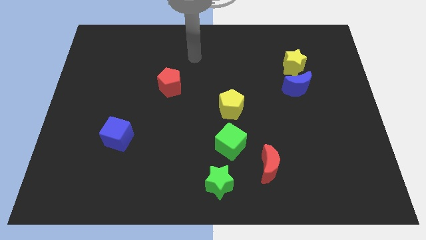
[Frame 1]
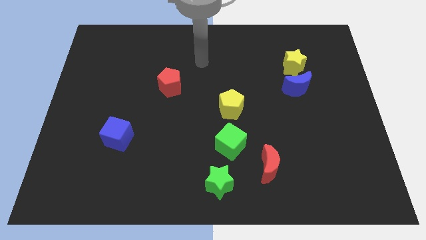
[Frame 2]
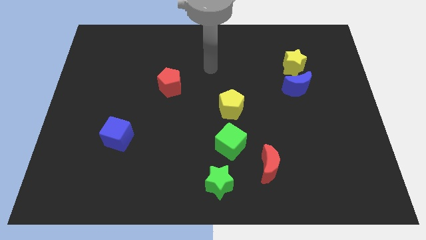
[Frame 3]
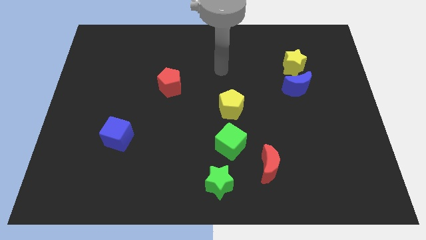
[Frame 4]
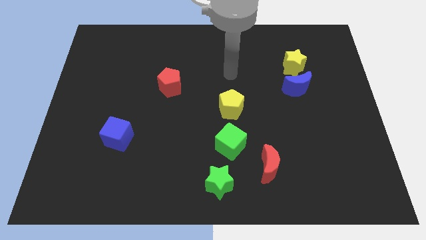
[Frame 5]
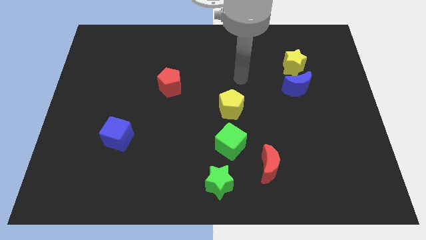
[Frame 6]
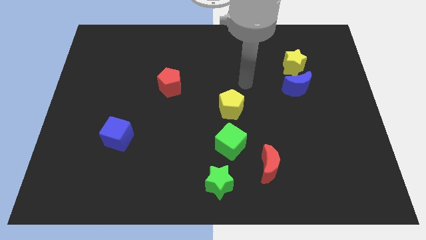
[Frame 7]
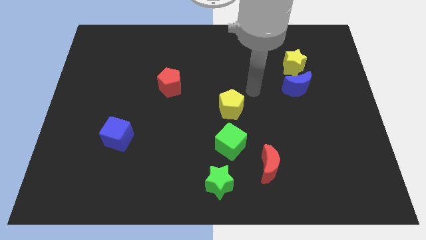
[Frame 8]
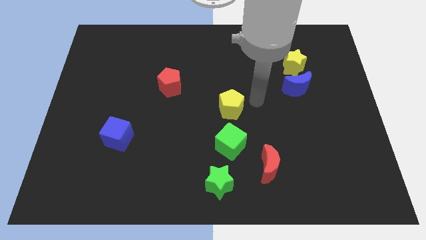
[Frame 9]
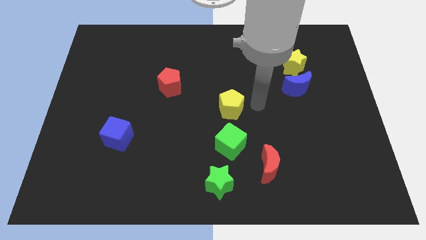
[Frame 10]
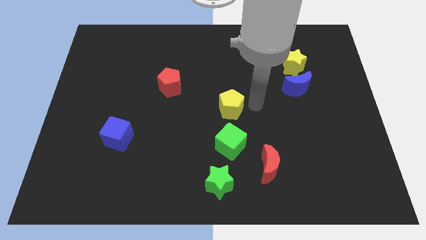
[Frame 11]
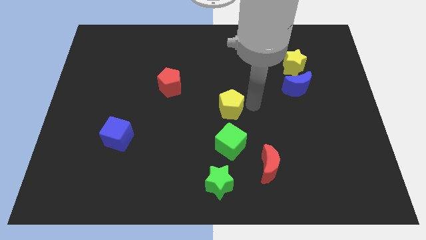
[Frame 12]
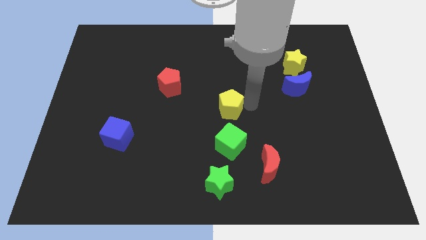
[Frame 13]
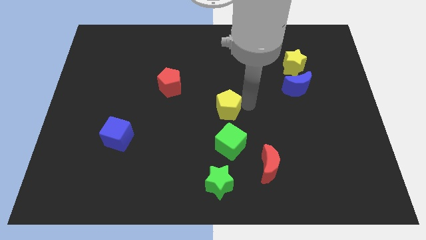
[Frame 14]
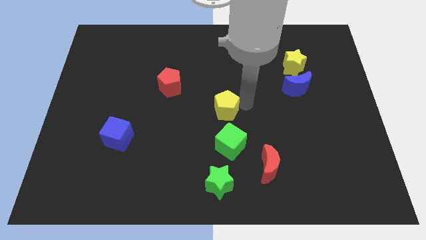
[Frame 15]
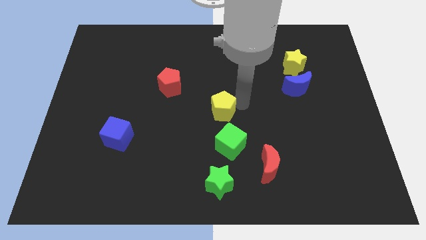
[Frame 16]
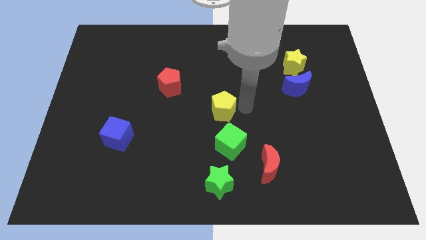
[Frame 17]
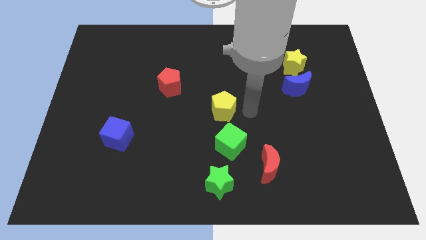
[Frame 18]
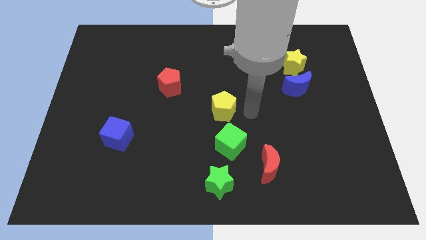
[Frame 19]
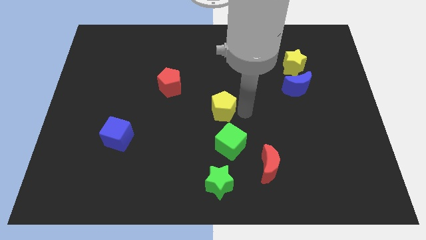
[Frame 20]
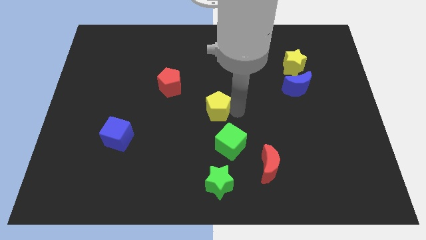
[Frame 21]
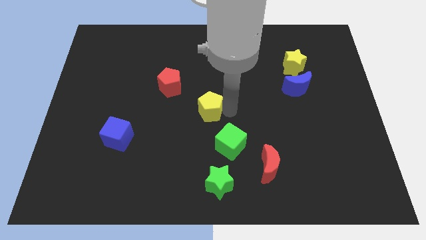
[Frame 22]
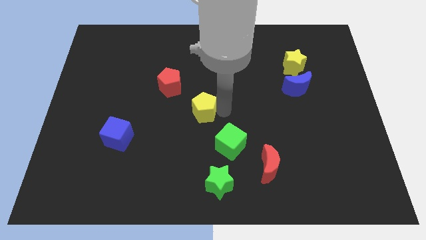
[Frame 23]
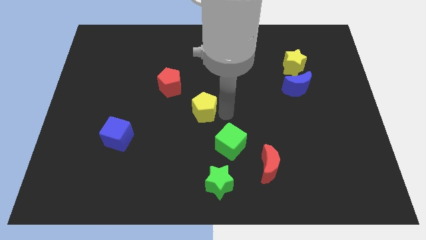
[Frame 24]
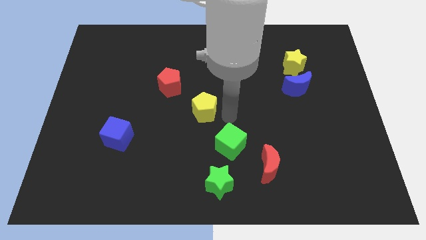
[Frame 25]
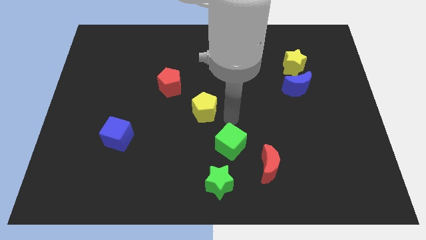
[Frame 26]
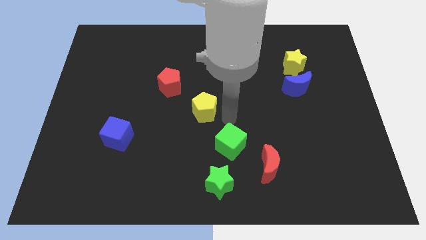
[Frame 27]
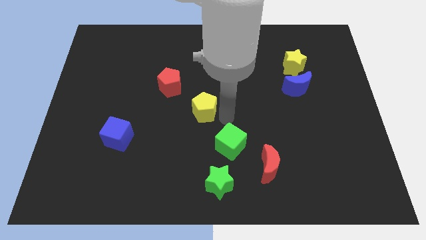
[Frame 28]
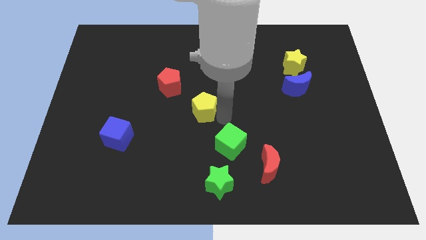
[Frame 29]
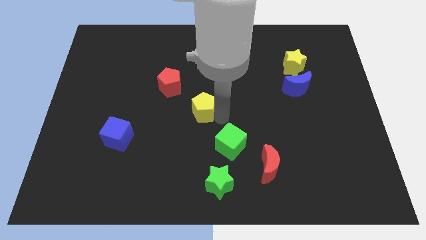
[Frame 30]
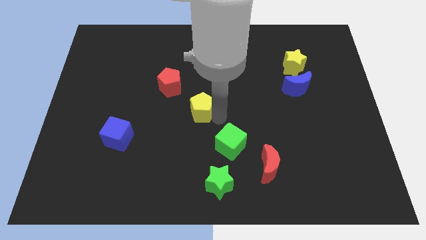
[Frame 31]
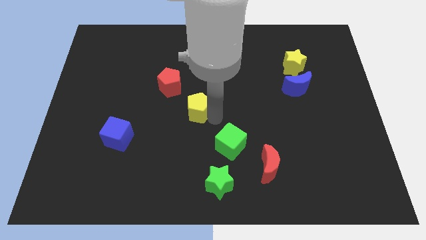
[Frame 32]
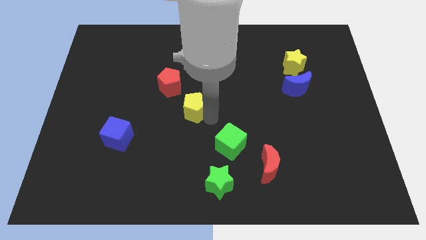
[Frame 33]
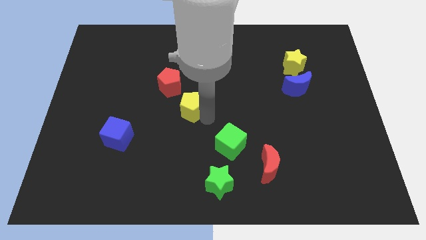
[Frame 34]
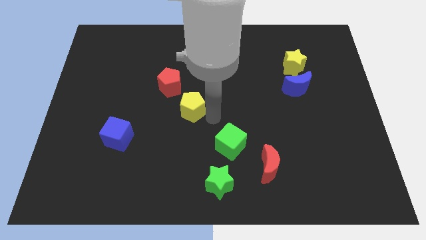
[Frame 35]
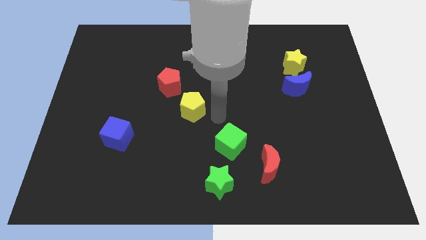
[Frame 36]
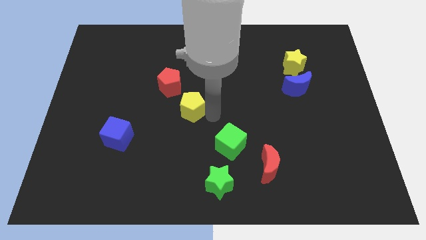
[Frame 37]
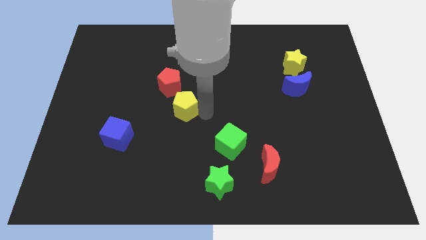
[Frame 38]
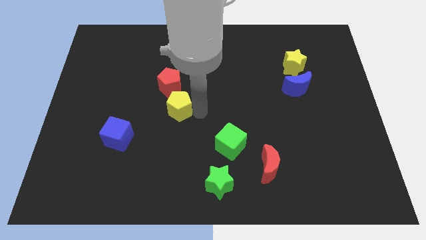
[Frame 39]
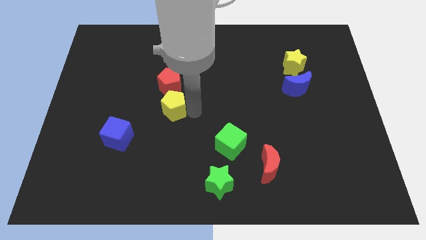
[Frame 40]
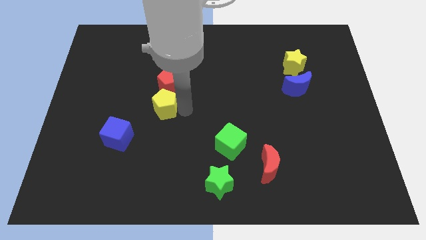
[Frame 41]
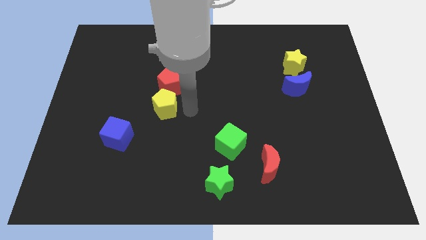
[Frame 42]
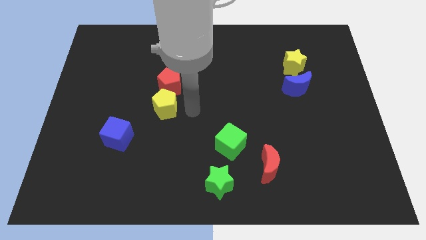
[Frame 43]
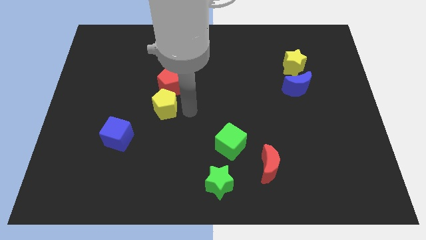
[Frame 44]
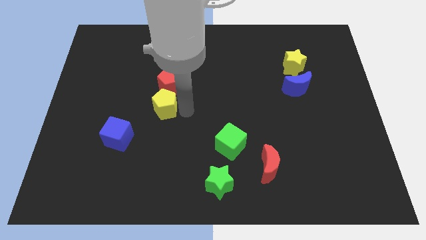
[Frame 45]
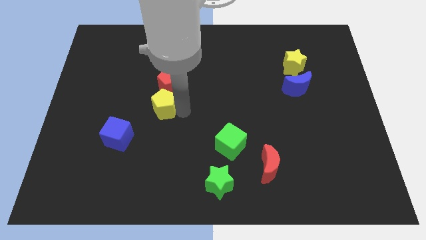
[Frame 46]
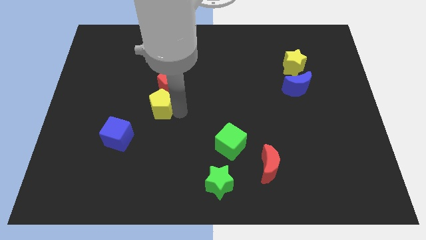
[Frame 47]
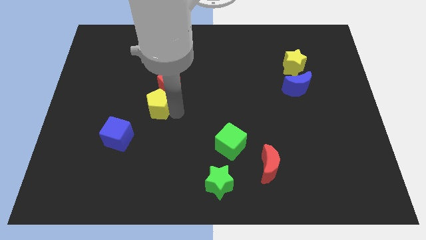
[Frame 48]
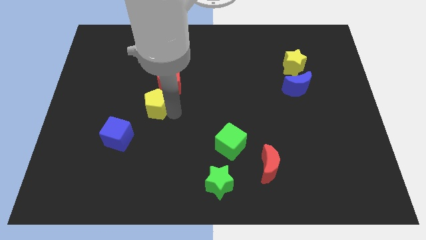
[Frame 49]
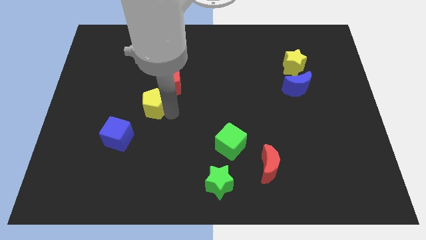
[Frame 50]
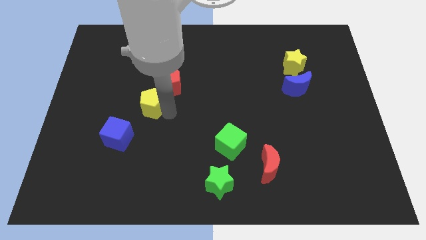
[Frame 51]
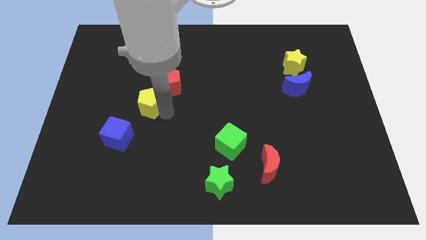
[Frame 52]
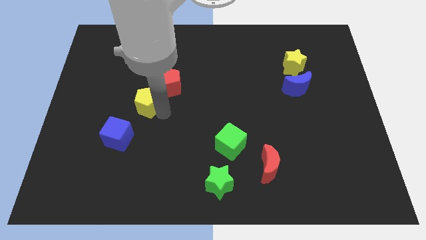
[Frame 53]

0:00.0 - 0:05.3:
move the yellow pentagon left

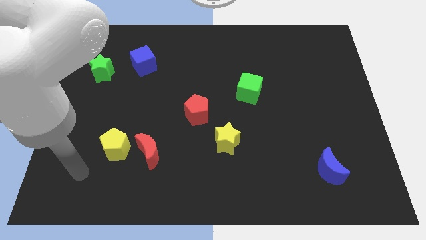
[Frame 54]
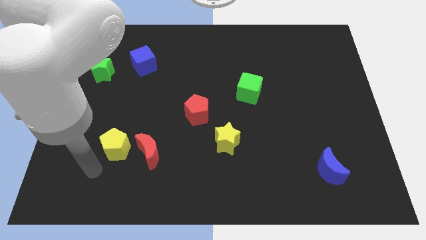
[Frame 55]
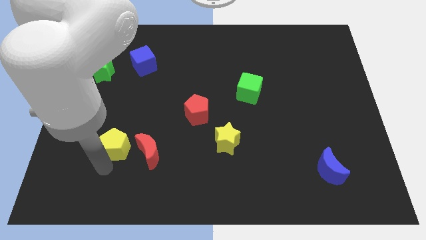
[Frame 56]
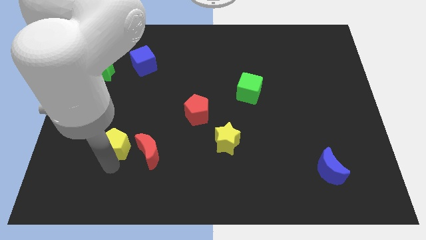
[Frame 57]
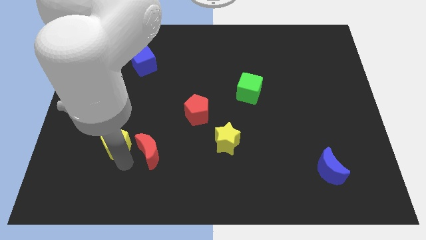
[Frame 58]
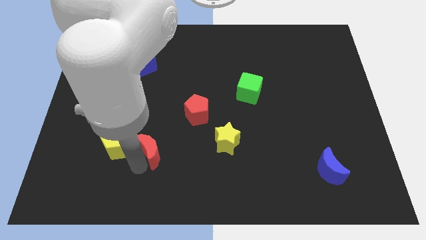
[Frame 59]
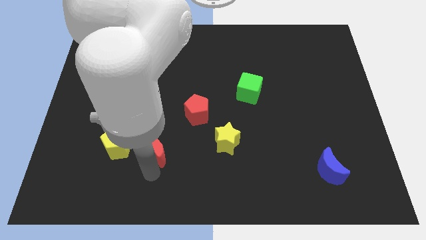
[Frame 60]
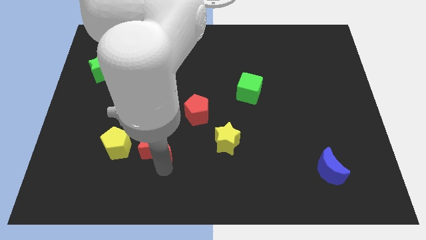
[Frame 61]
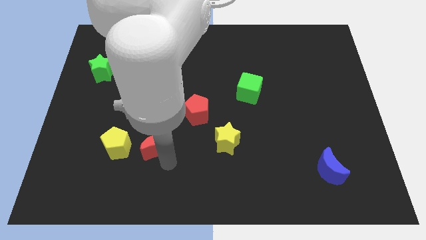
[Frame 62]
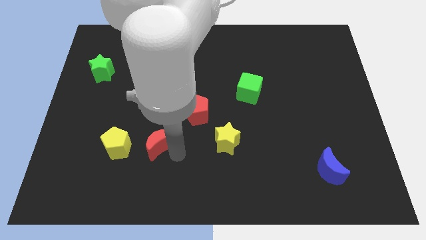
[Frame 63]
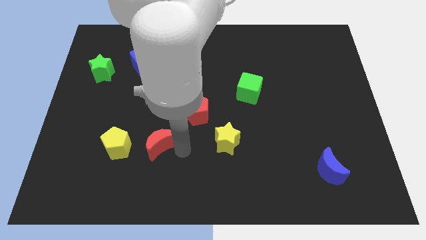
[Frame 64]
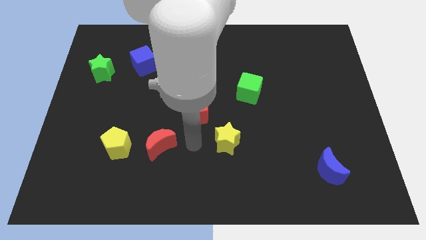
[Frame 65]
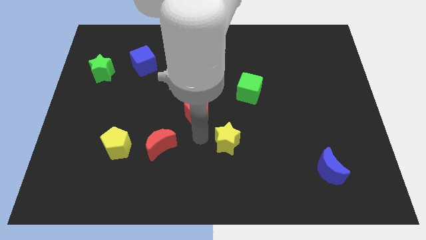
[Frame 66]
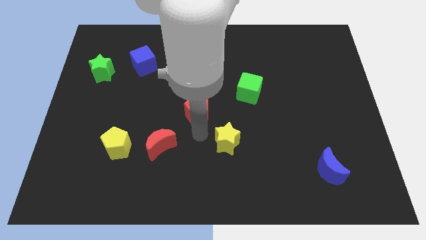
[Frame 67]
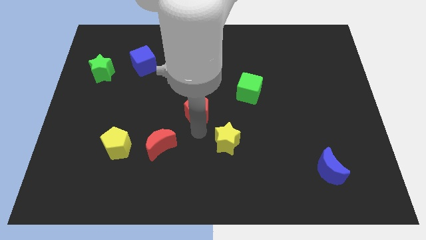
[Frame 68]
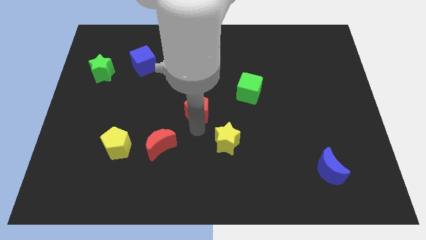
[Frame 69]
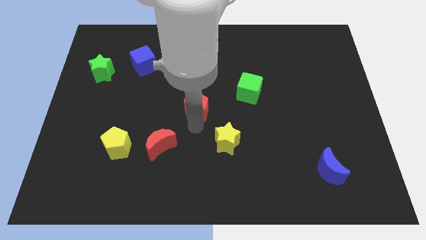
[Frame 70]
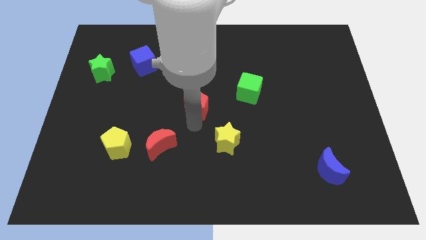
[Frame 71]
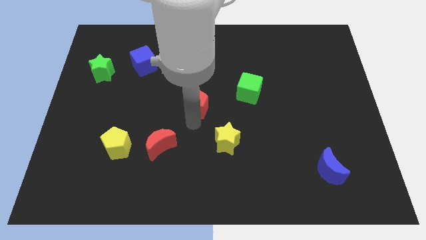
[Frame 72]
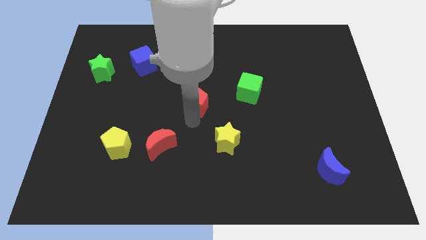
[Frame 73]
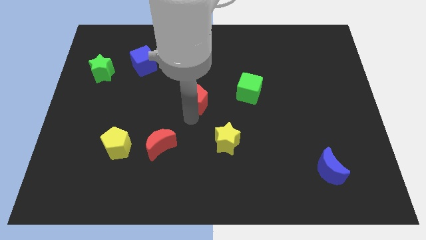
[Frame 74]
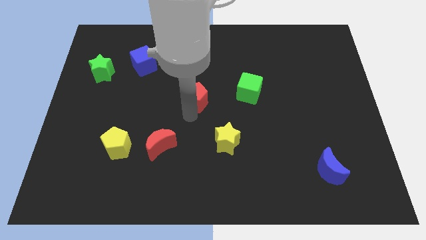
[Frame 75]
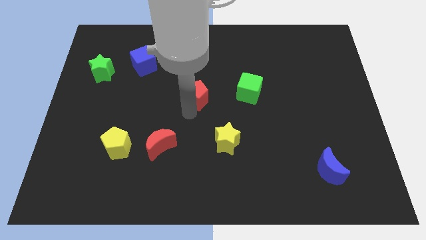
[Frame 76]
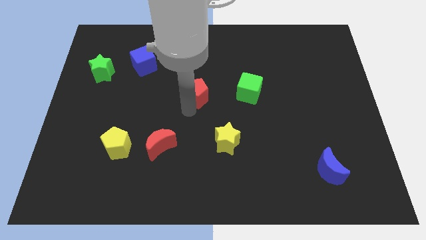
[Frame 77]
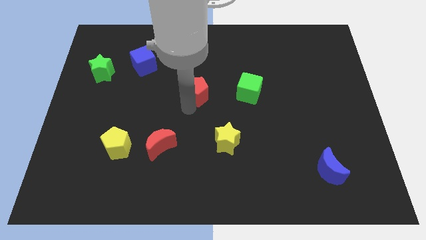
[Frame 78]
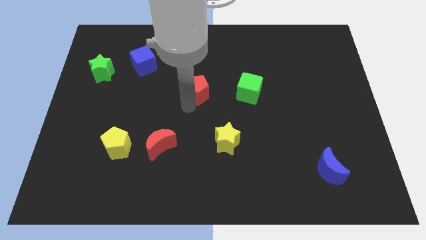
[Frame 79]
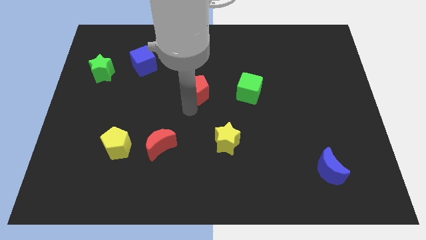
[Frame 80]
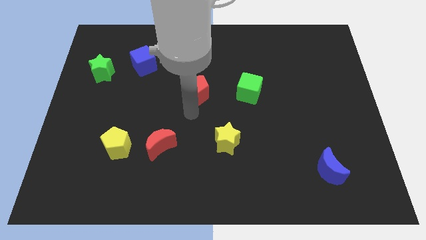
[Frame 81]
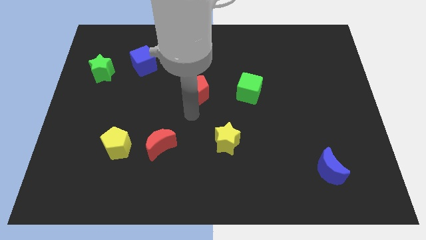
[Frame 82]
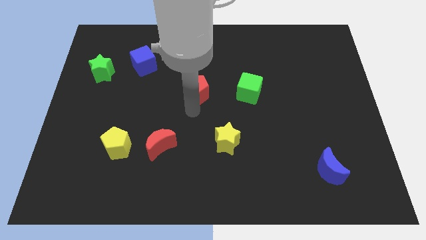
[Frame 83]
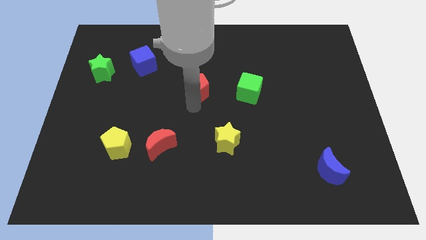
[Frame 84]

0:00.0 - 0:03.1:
move the red pentagon up a little

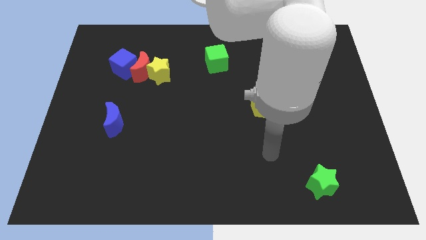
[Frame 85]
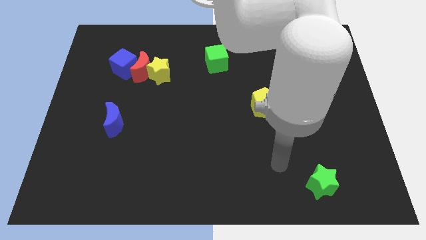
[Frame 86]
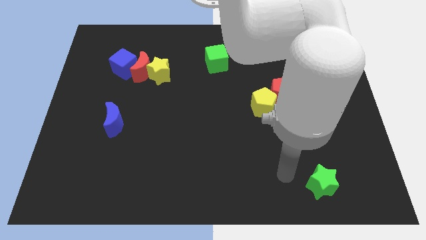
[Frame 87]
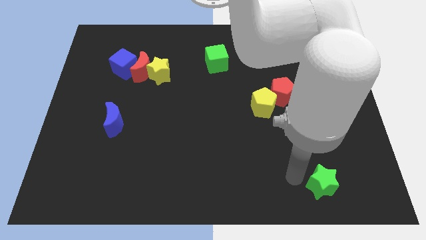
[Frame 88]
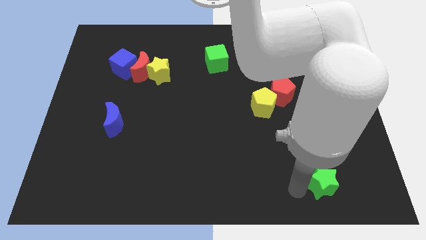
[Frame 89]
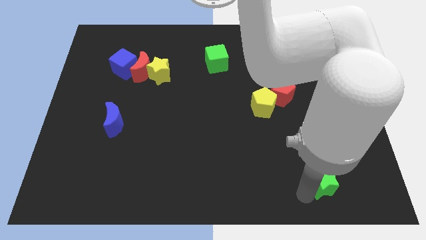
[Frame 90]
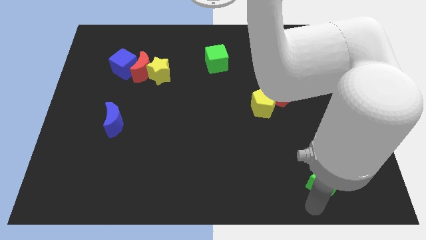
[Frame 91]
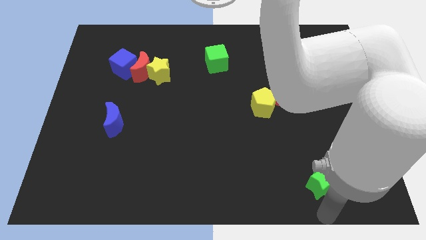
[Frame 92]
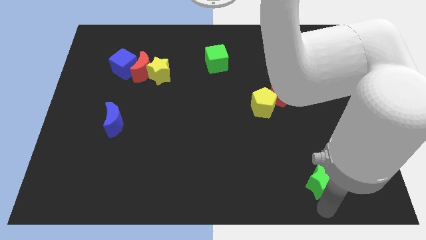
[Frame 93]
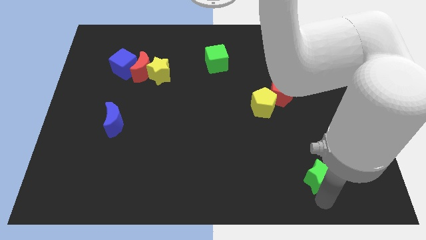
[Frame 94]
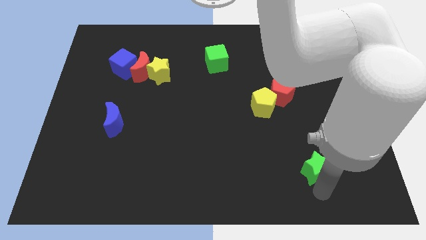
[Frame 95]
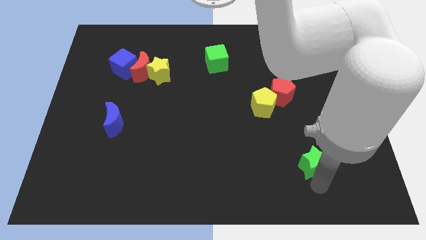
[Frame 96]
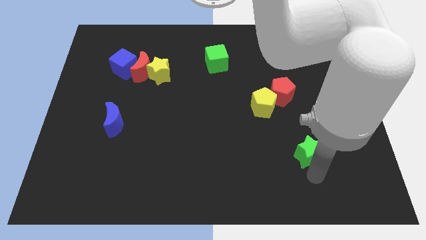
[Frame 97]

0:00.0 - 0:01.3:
slightly move the green star upwards
